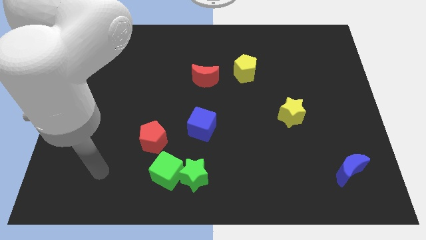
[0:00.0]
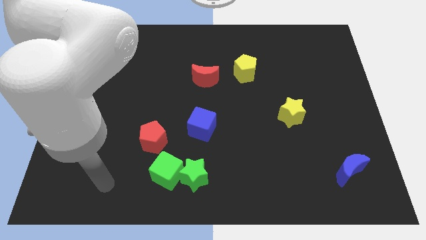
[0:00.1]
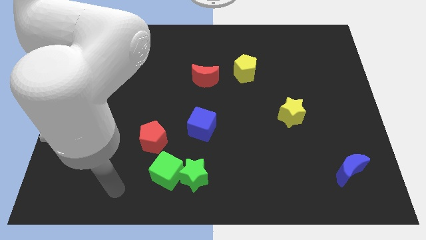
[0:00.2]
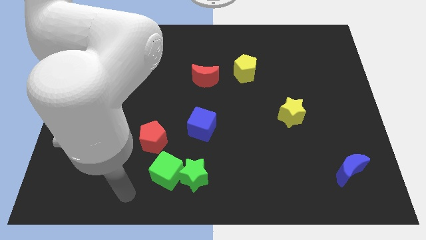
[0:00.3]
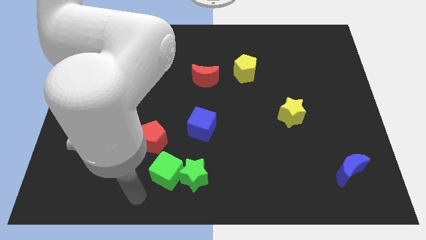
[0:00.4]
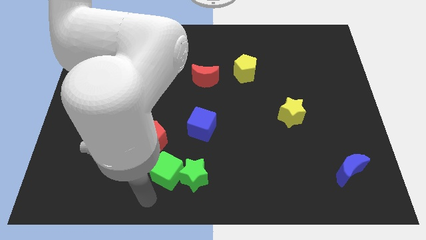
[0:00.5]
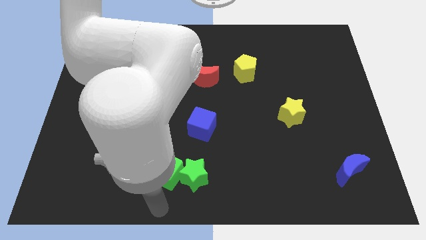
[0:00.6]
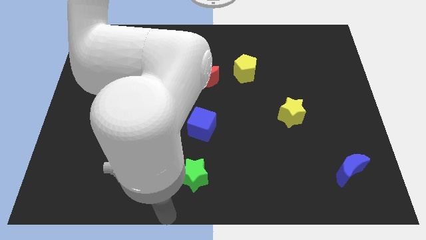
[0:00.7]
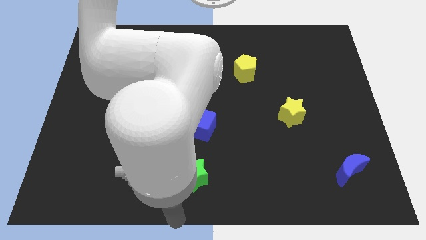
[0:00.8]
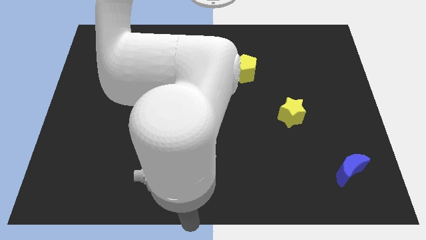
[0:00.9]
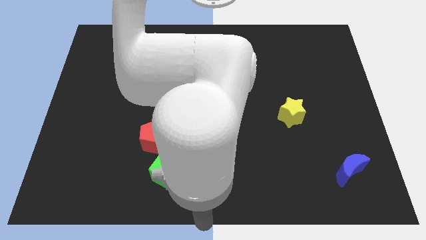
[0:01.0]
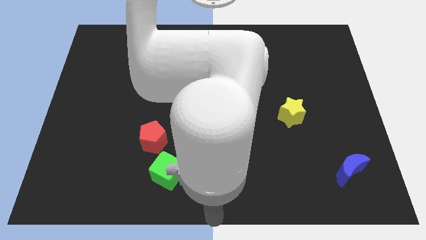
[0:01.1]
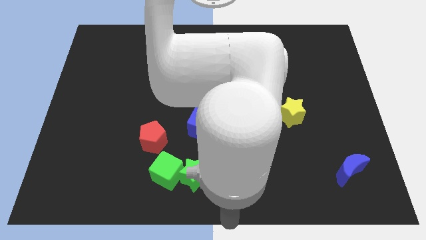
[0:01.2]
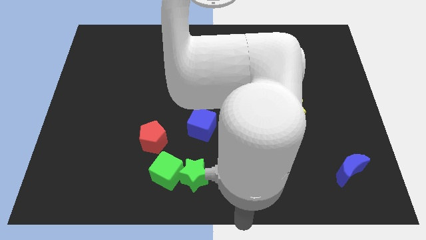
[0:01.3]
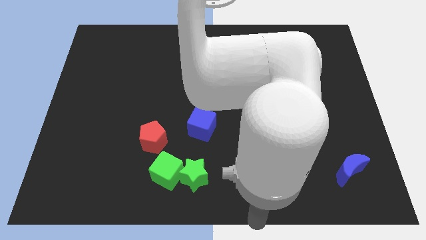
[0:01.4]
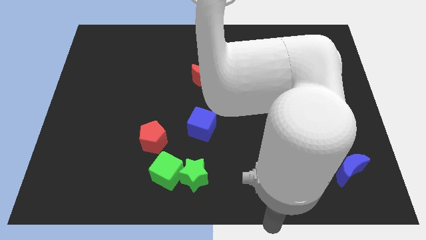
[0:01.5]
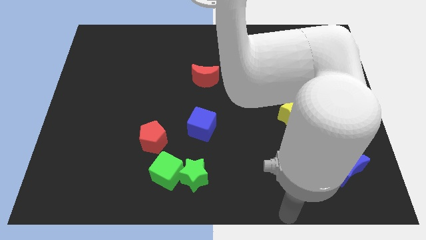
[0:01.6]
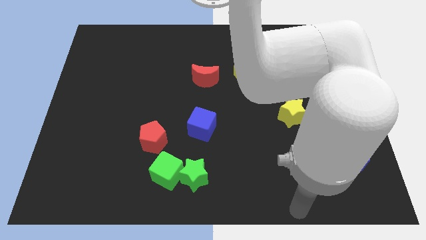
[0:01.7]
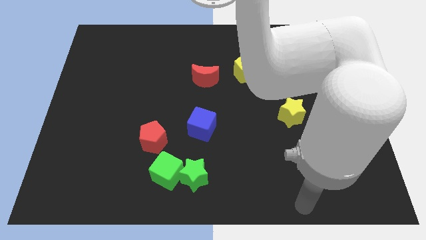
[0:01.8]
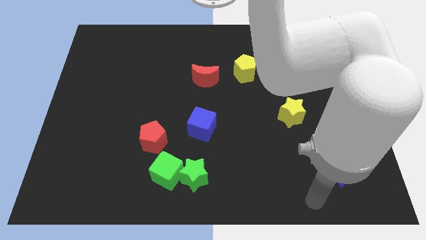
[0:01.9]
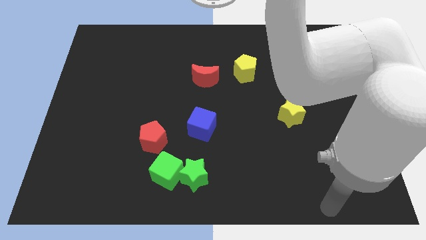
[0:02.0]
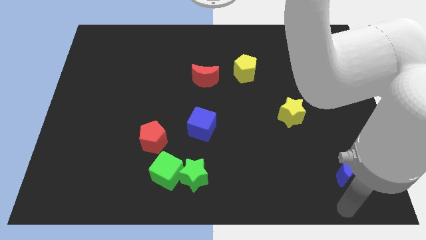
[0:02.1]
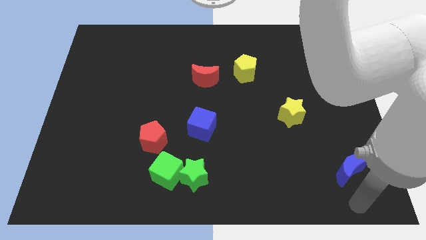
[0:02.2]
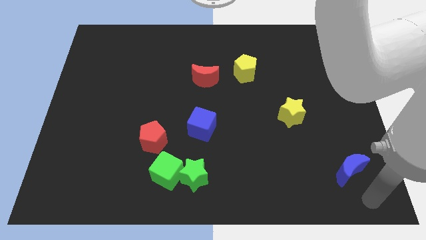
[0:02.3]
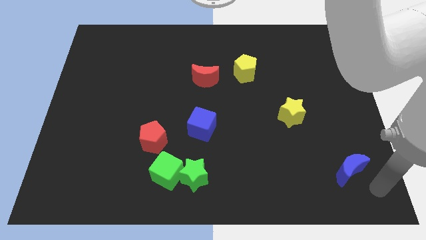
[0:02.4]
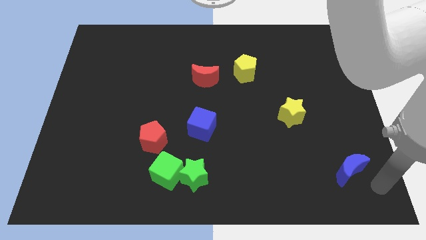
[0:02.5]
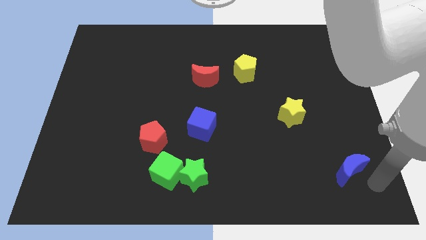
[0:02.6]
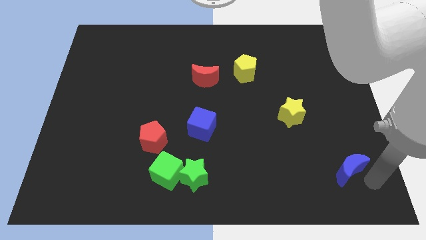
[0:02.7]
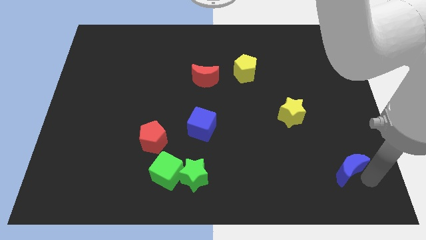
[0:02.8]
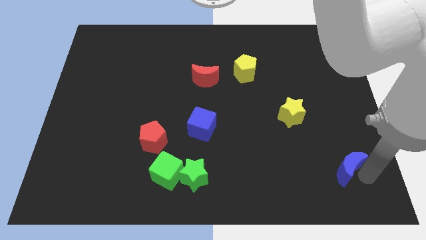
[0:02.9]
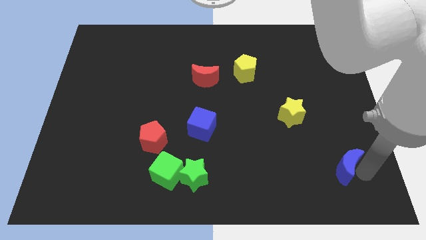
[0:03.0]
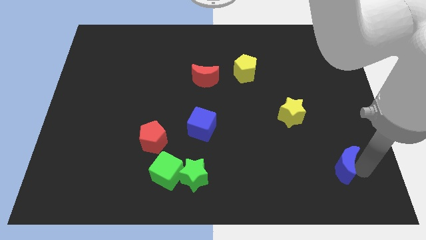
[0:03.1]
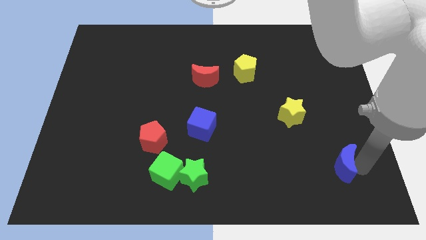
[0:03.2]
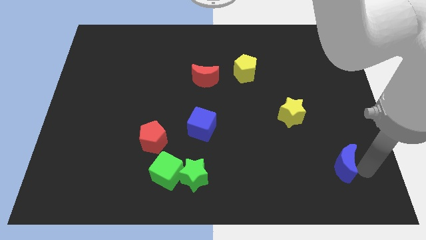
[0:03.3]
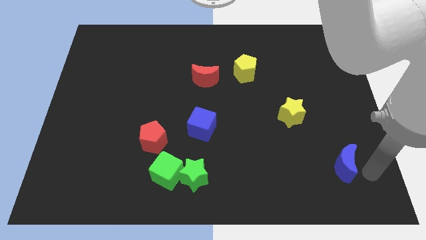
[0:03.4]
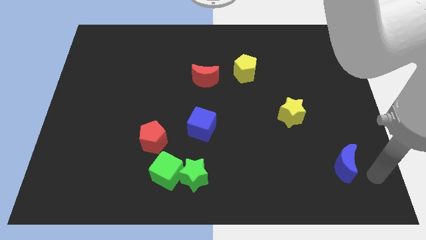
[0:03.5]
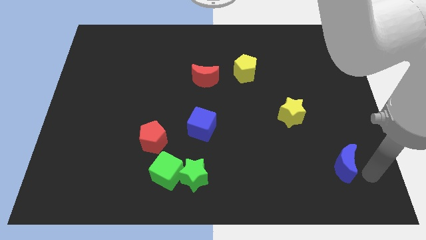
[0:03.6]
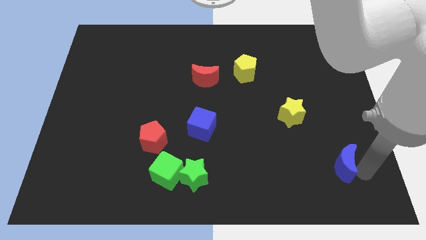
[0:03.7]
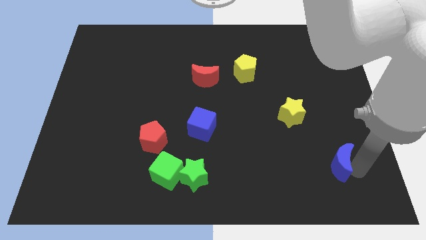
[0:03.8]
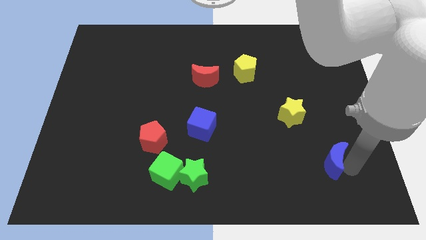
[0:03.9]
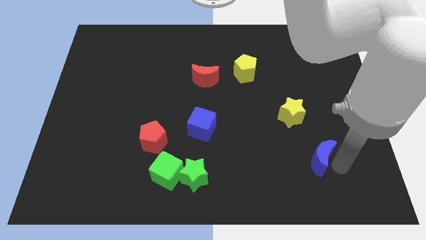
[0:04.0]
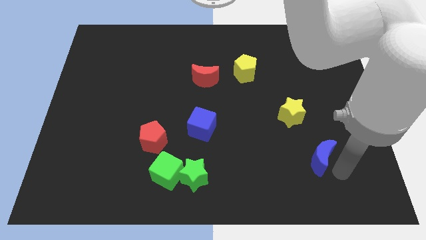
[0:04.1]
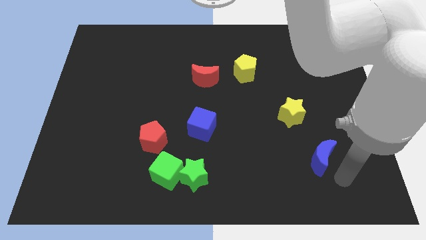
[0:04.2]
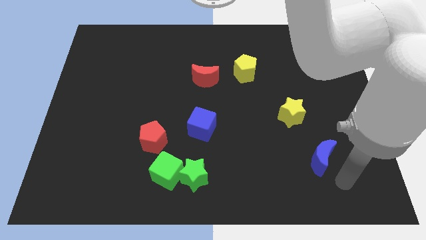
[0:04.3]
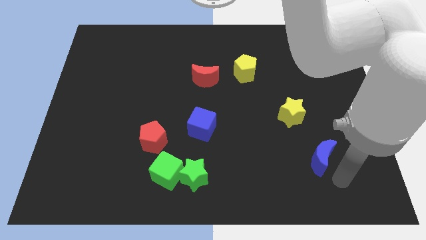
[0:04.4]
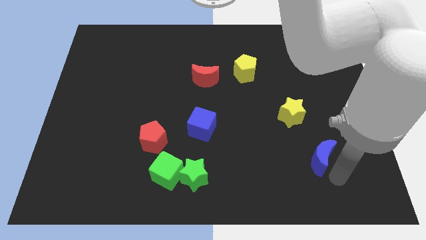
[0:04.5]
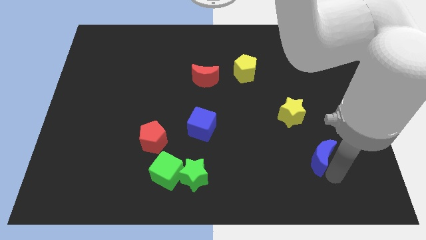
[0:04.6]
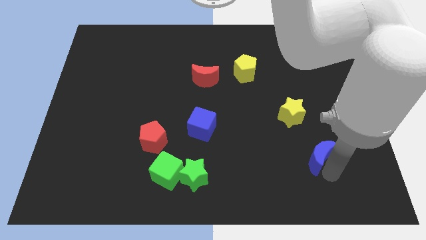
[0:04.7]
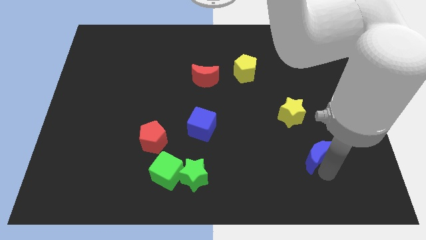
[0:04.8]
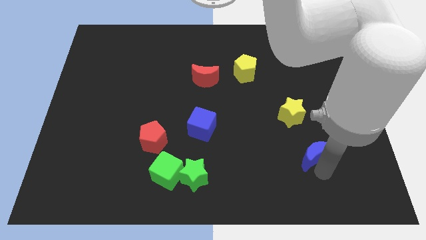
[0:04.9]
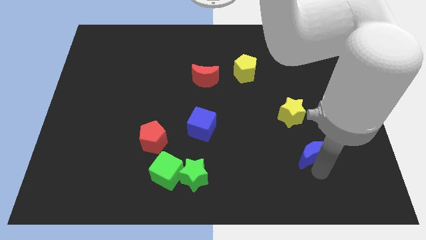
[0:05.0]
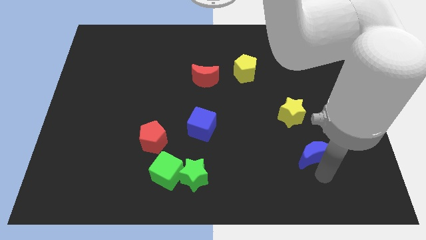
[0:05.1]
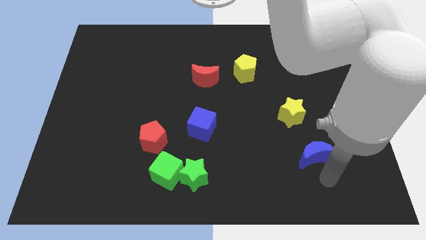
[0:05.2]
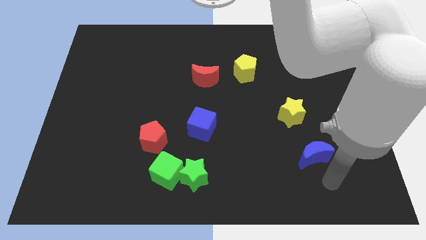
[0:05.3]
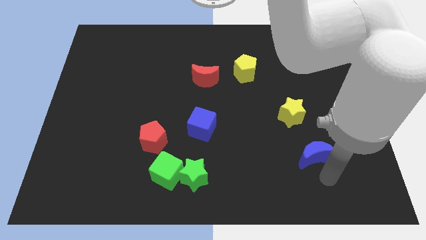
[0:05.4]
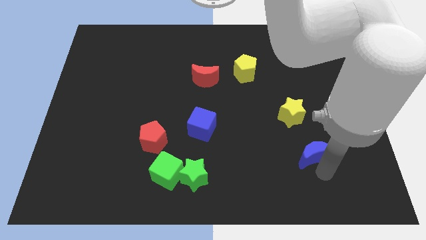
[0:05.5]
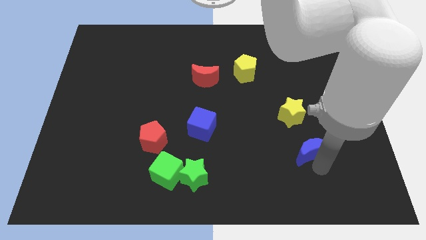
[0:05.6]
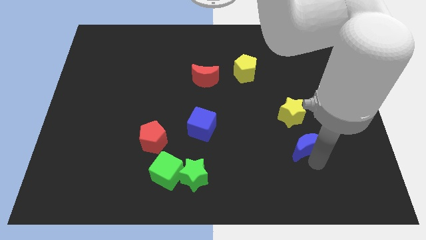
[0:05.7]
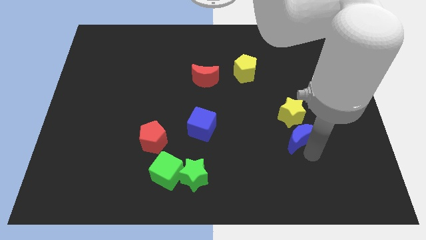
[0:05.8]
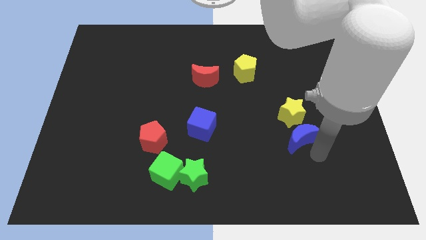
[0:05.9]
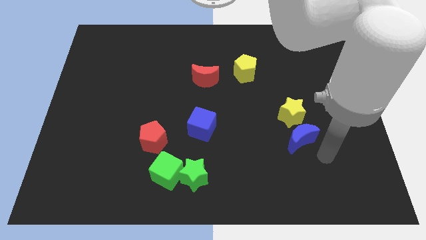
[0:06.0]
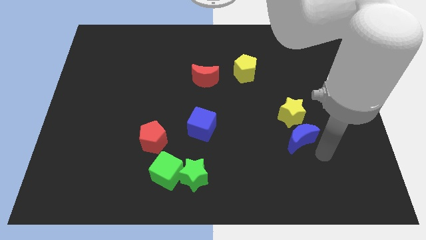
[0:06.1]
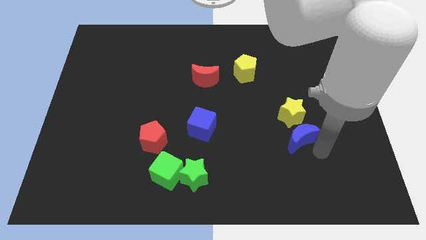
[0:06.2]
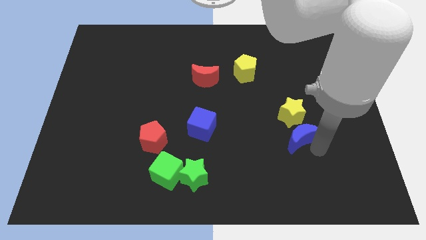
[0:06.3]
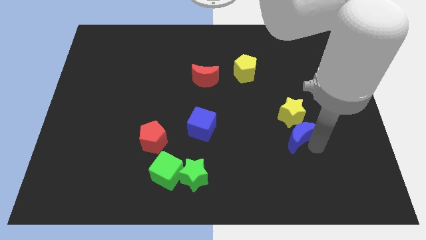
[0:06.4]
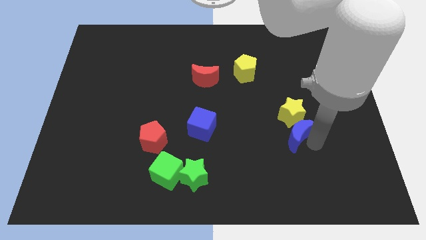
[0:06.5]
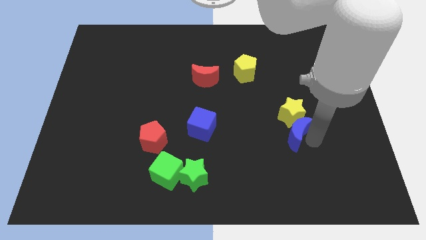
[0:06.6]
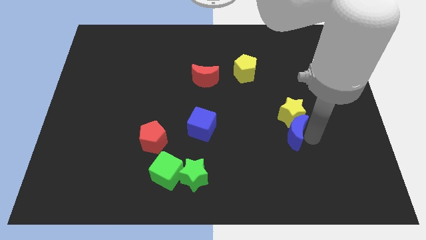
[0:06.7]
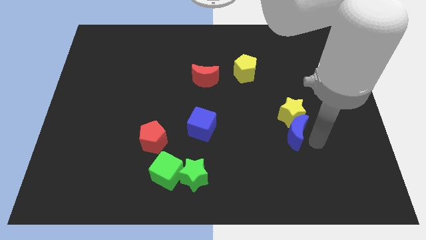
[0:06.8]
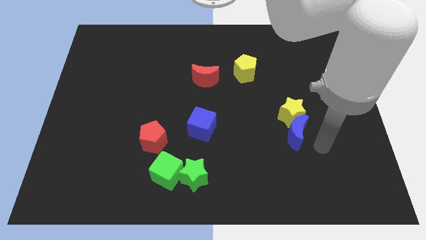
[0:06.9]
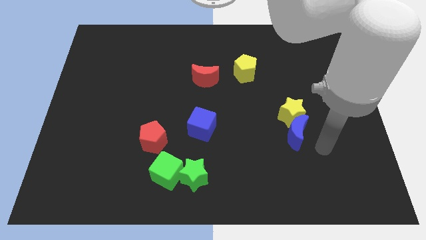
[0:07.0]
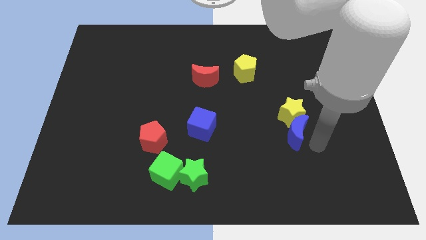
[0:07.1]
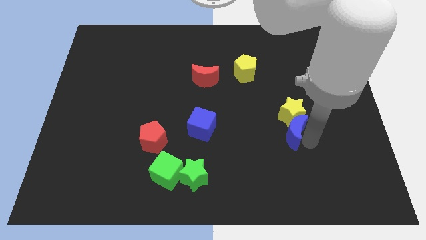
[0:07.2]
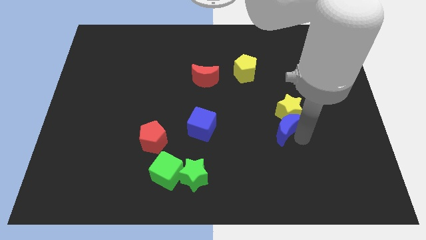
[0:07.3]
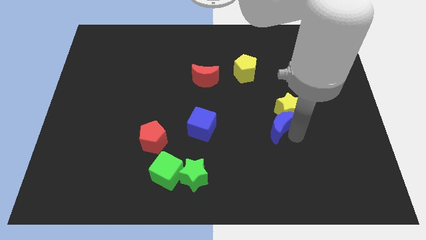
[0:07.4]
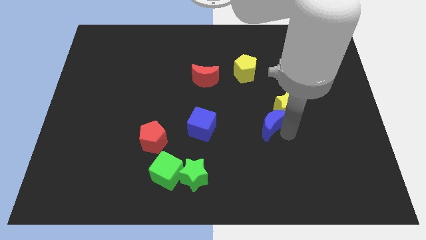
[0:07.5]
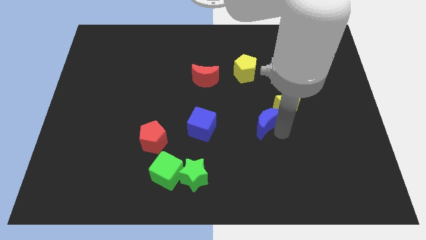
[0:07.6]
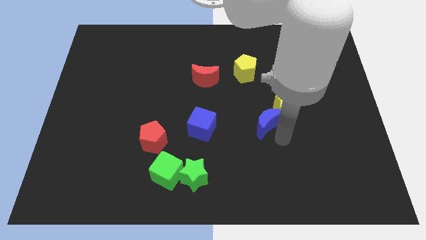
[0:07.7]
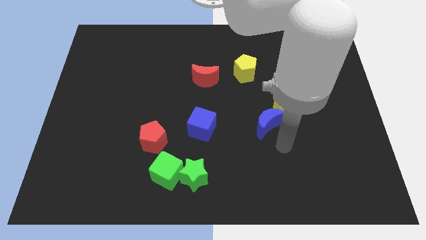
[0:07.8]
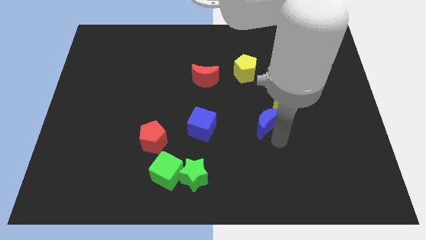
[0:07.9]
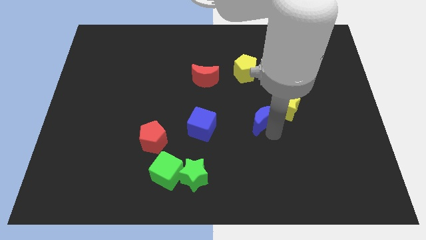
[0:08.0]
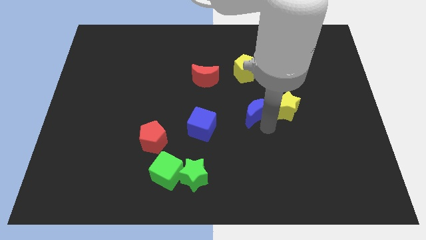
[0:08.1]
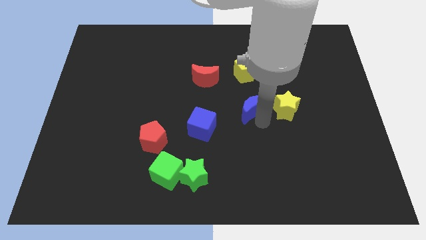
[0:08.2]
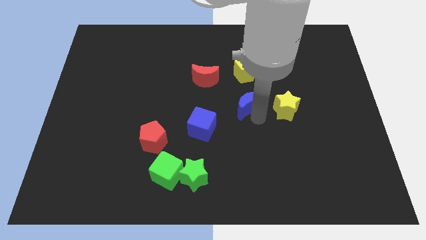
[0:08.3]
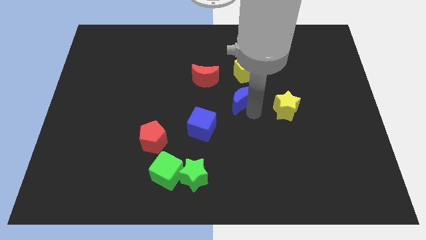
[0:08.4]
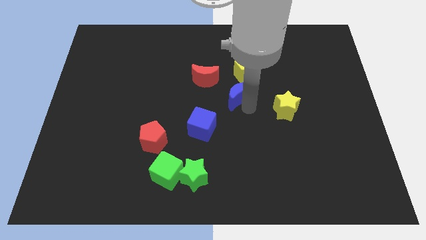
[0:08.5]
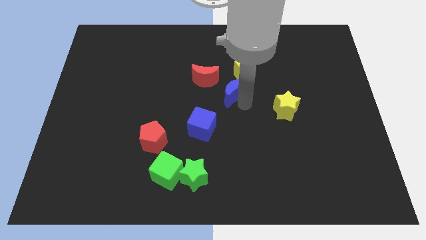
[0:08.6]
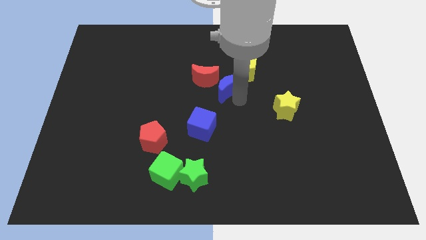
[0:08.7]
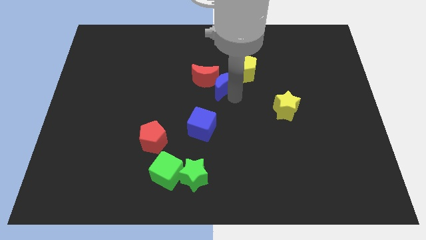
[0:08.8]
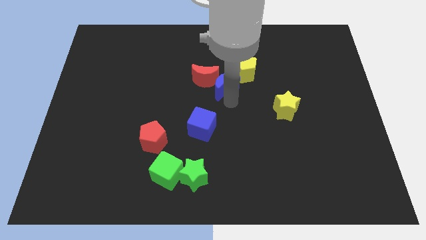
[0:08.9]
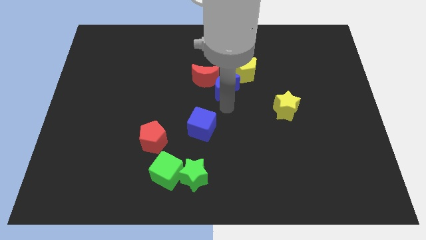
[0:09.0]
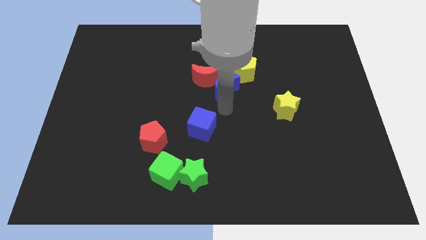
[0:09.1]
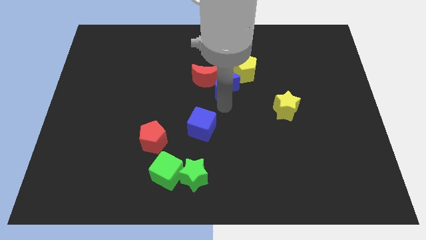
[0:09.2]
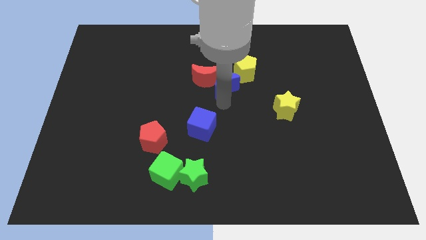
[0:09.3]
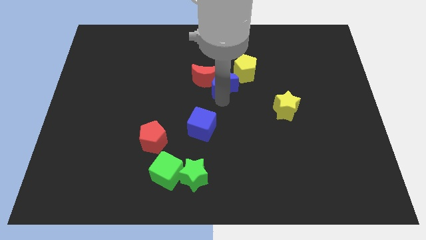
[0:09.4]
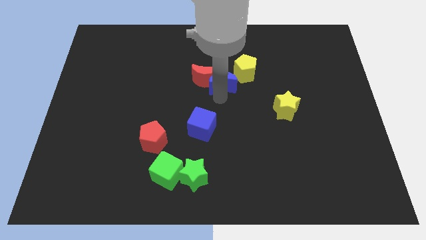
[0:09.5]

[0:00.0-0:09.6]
push the blue moon to the top right of the red moon
